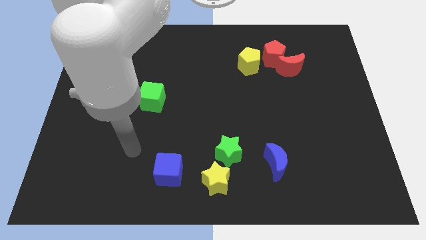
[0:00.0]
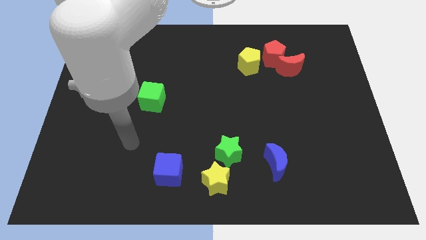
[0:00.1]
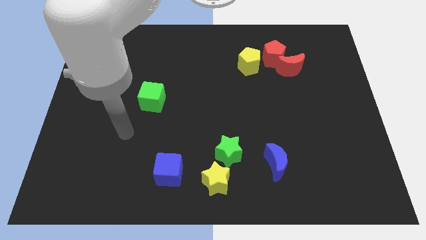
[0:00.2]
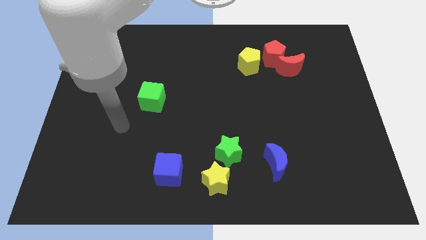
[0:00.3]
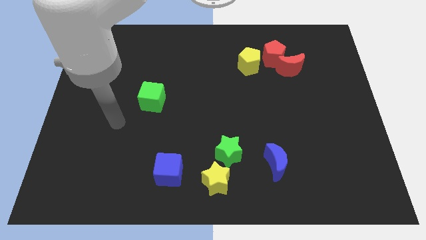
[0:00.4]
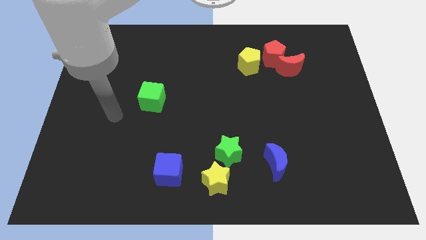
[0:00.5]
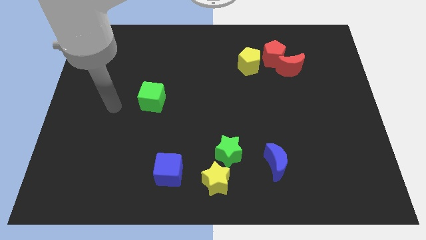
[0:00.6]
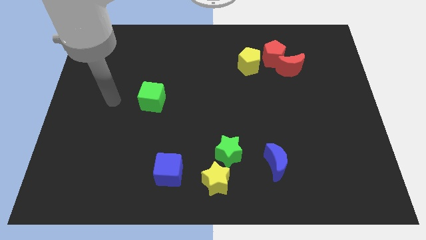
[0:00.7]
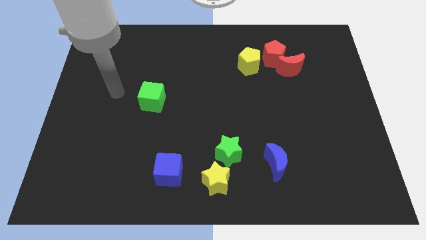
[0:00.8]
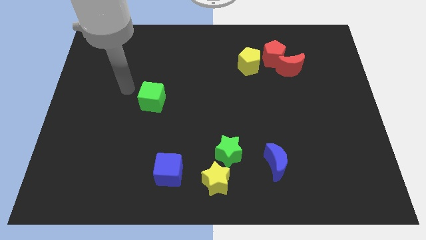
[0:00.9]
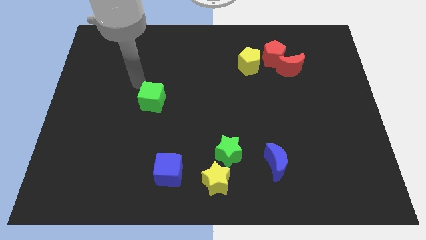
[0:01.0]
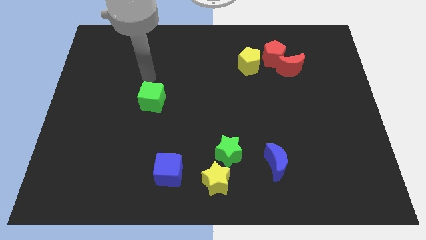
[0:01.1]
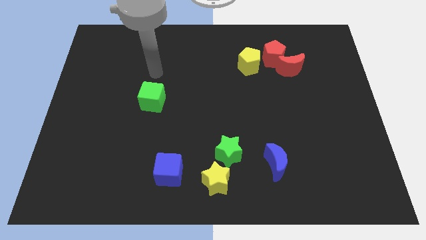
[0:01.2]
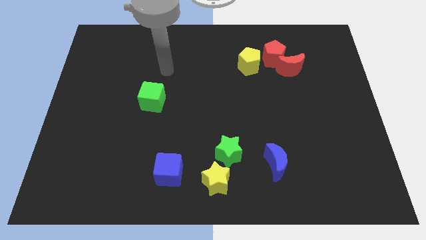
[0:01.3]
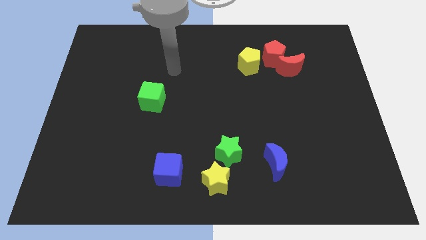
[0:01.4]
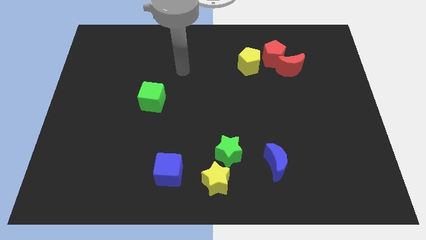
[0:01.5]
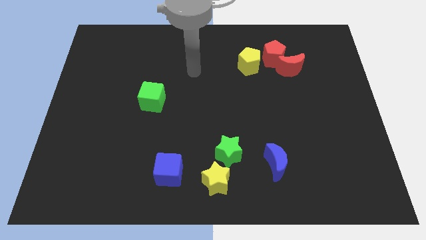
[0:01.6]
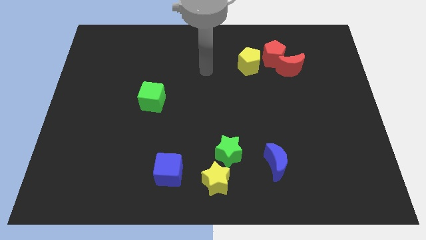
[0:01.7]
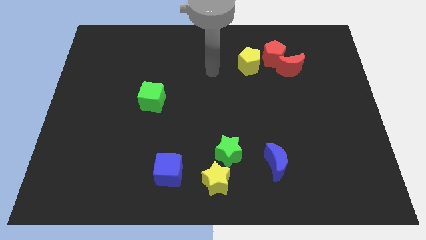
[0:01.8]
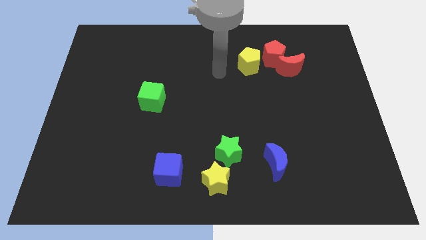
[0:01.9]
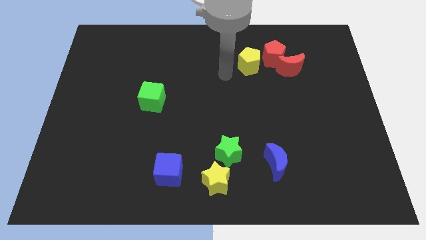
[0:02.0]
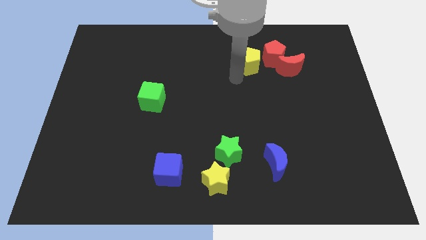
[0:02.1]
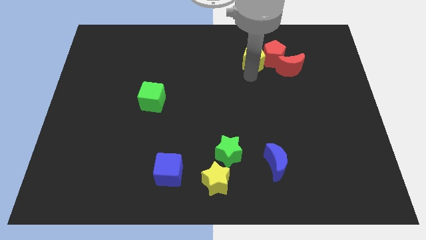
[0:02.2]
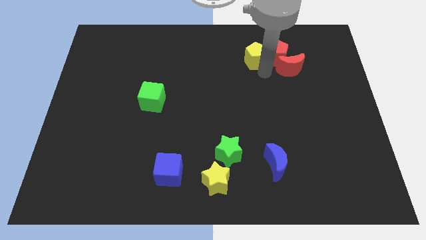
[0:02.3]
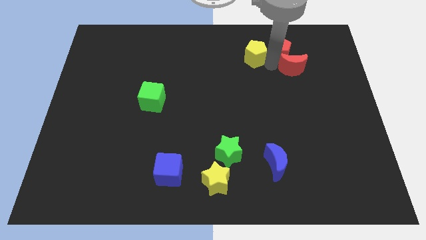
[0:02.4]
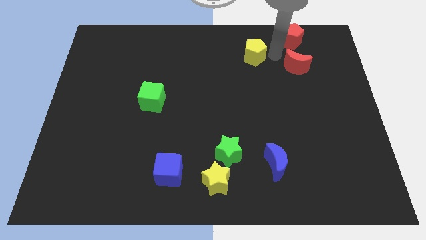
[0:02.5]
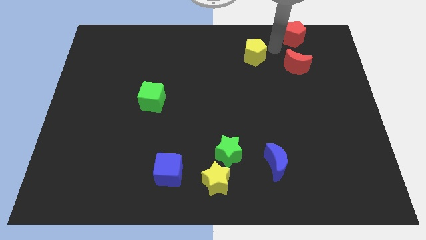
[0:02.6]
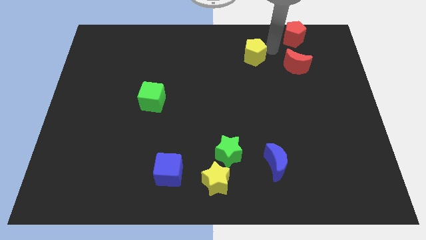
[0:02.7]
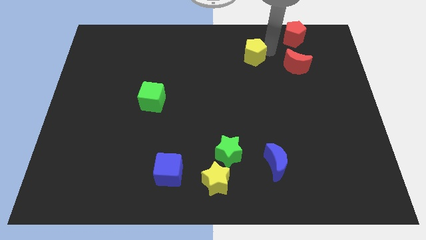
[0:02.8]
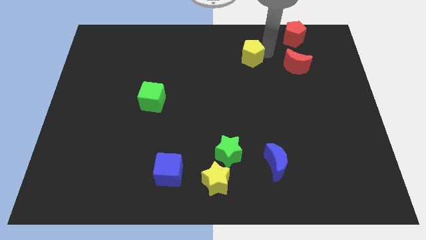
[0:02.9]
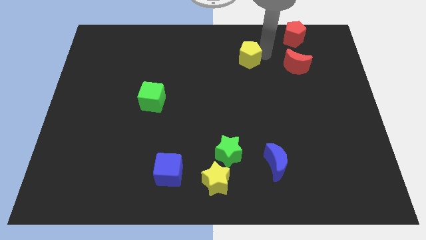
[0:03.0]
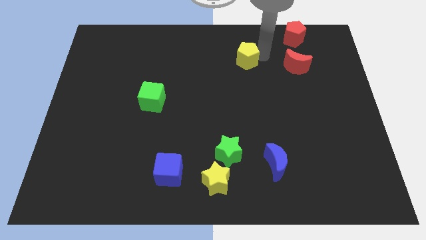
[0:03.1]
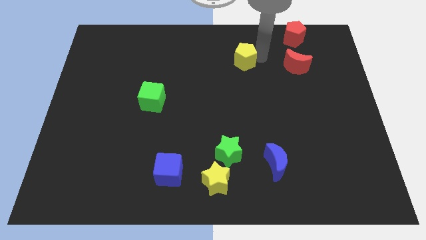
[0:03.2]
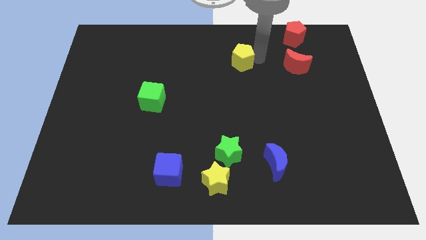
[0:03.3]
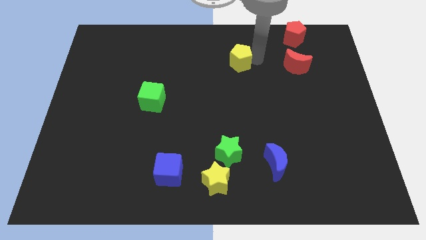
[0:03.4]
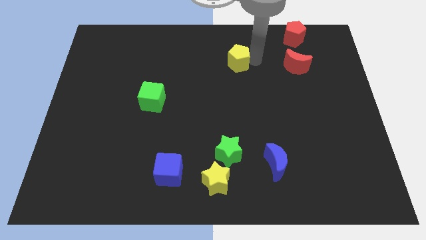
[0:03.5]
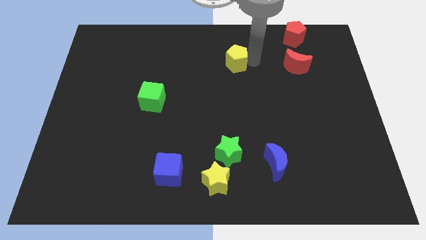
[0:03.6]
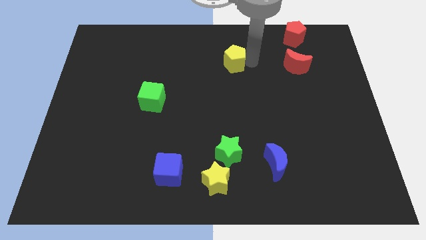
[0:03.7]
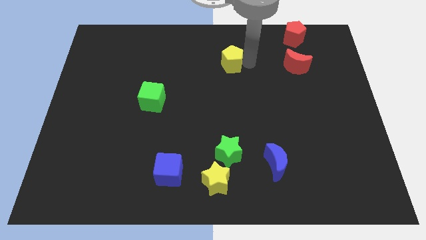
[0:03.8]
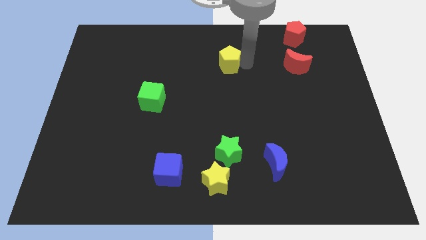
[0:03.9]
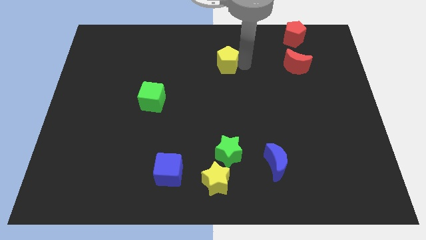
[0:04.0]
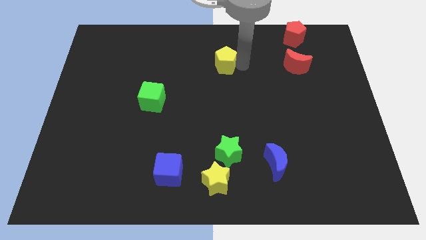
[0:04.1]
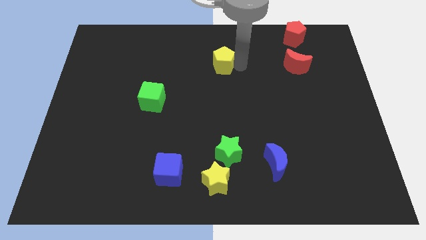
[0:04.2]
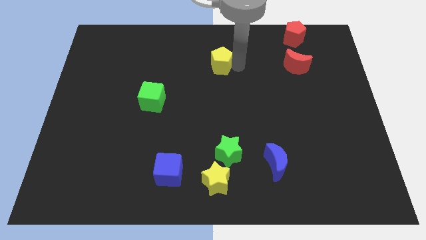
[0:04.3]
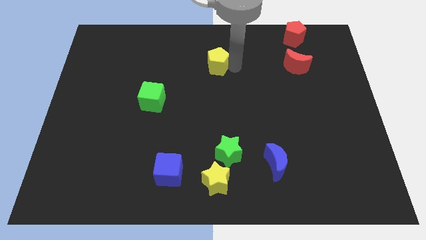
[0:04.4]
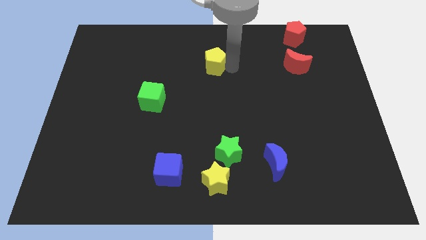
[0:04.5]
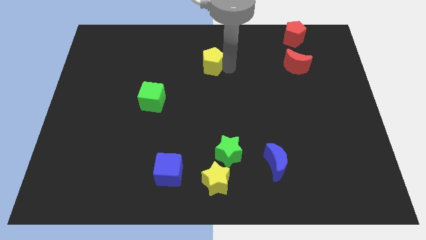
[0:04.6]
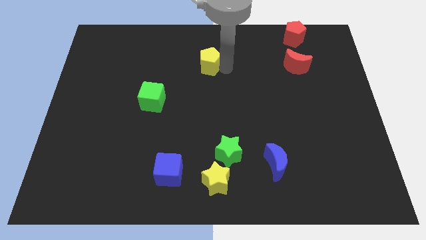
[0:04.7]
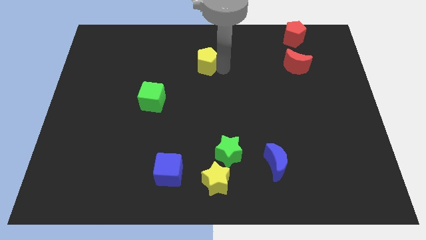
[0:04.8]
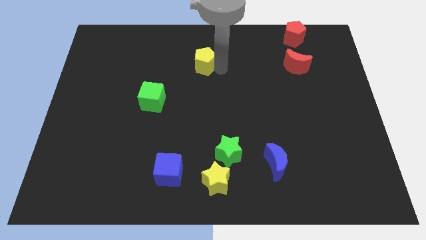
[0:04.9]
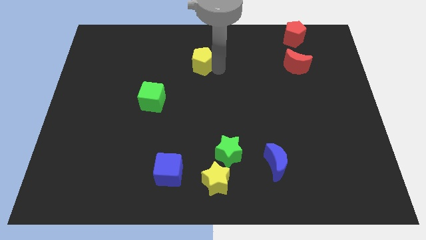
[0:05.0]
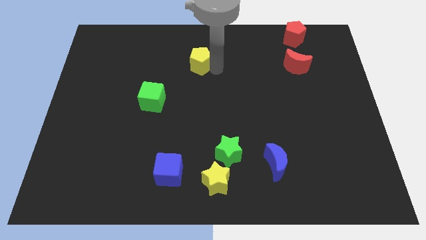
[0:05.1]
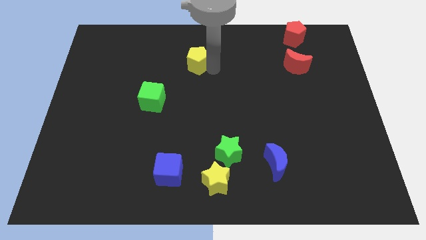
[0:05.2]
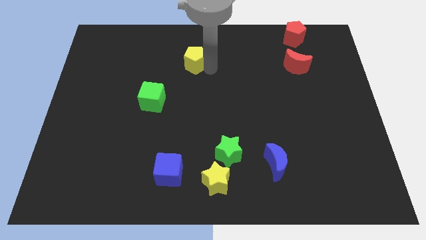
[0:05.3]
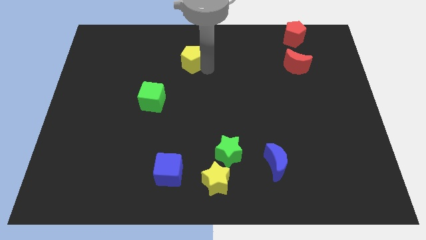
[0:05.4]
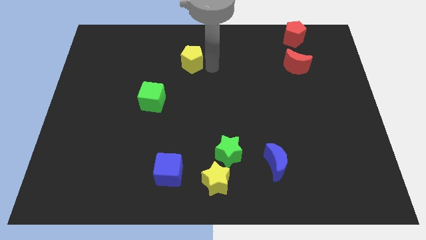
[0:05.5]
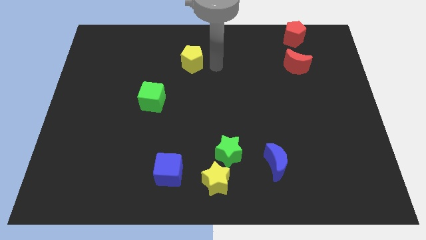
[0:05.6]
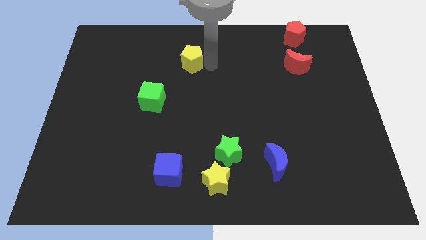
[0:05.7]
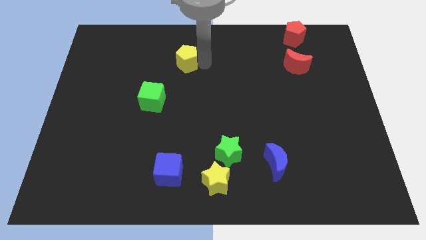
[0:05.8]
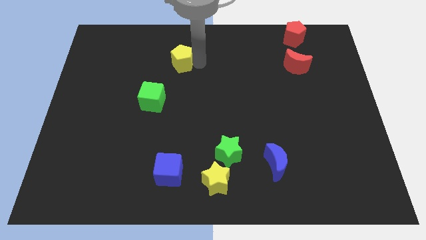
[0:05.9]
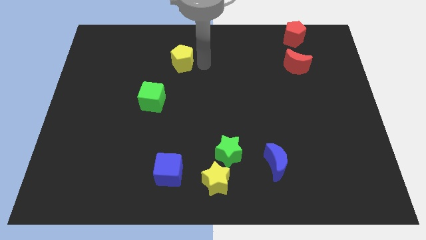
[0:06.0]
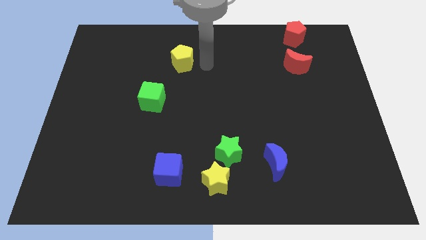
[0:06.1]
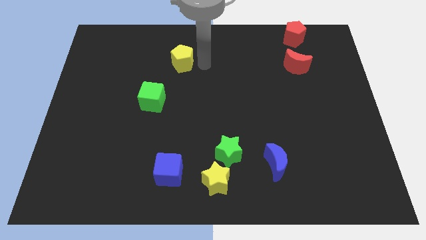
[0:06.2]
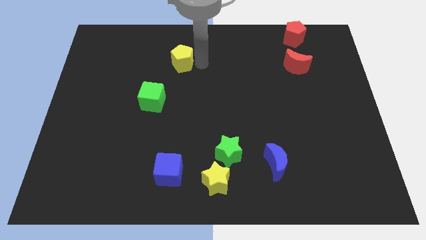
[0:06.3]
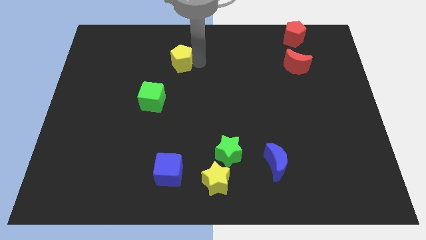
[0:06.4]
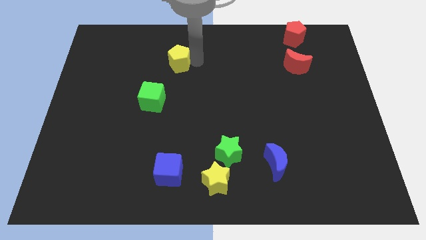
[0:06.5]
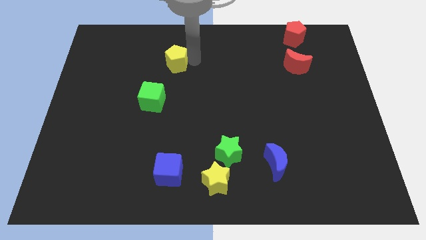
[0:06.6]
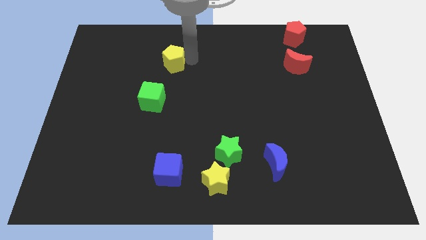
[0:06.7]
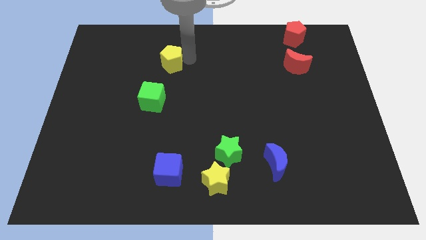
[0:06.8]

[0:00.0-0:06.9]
move the yellow pentagon to the left

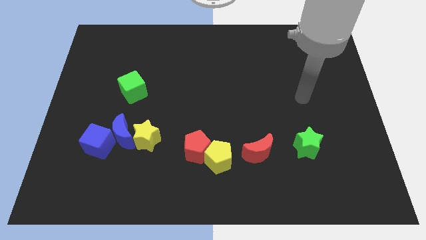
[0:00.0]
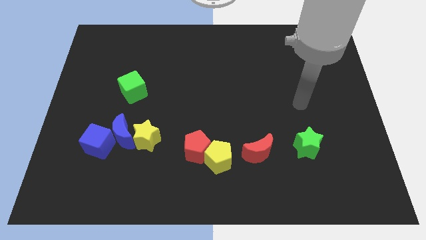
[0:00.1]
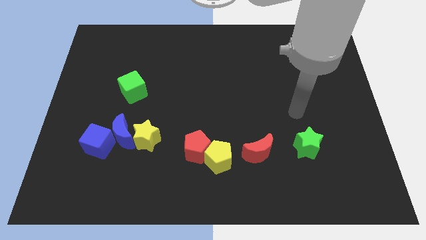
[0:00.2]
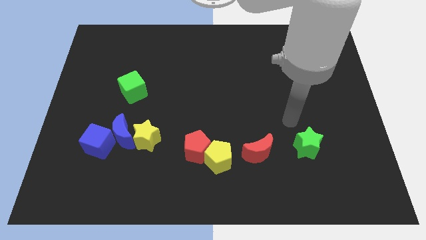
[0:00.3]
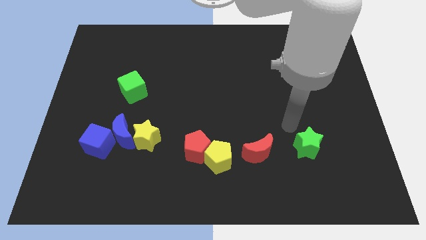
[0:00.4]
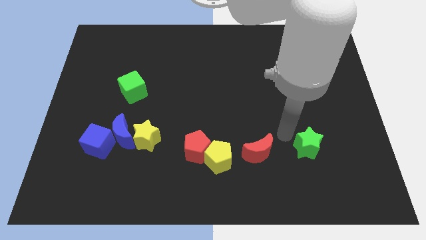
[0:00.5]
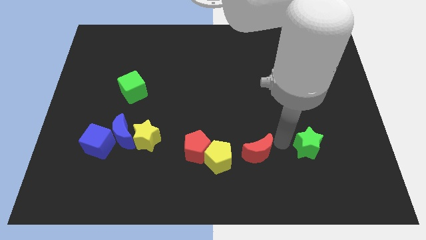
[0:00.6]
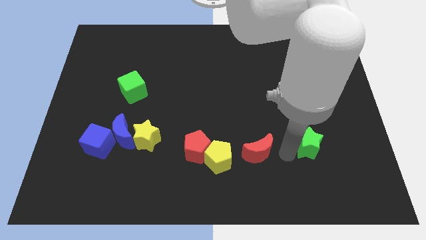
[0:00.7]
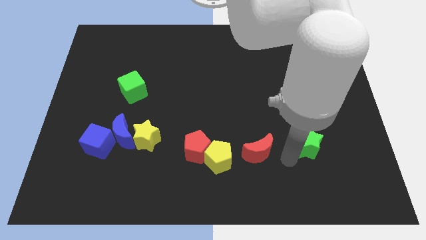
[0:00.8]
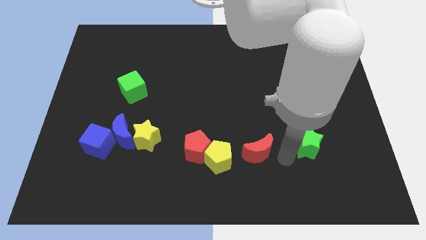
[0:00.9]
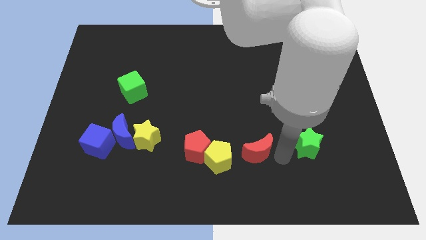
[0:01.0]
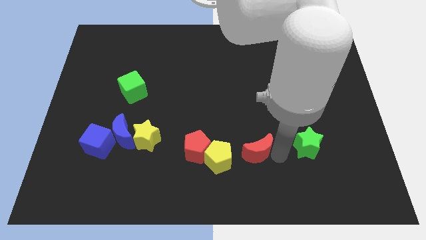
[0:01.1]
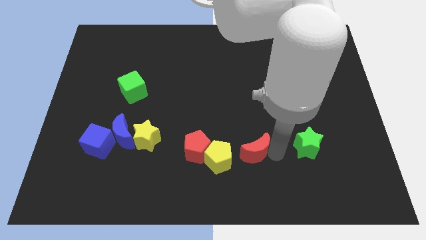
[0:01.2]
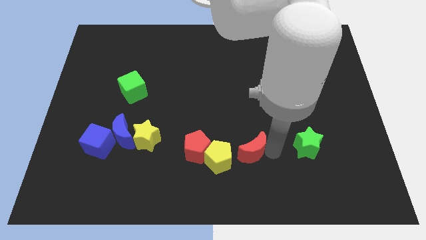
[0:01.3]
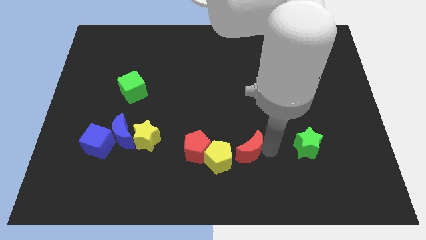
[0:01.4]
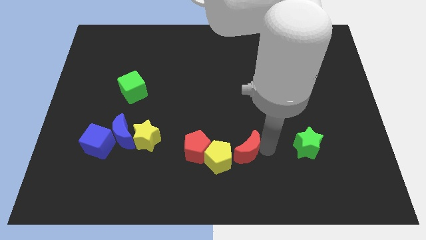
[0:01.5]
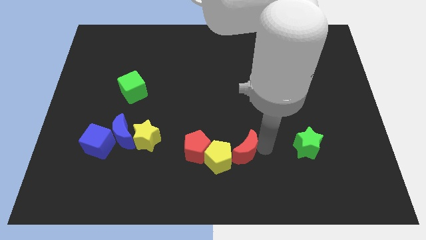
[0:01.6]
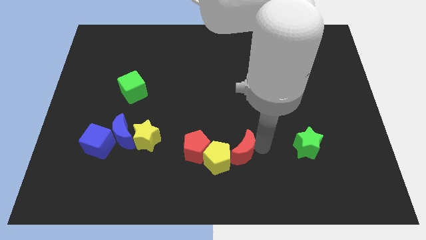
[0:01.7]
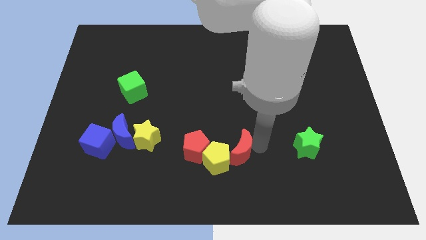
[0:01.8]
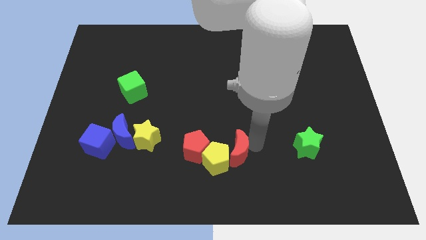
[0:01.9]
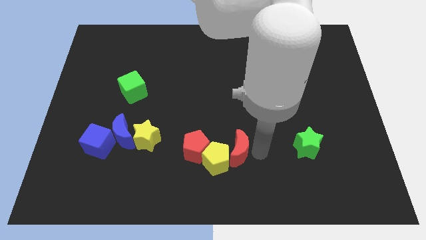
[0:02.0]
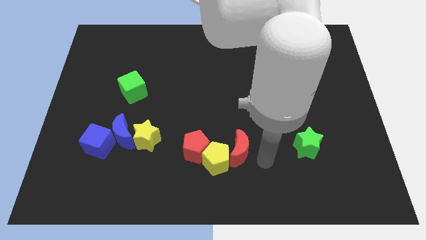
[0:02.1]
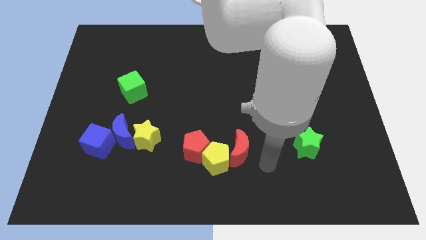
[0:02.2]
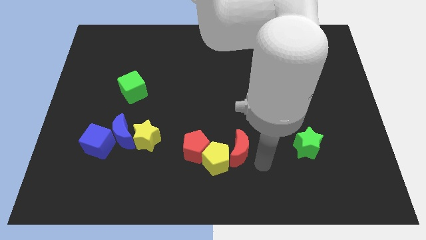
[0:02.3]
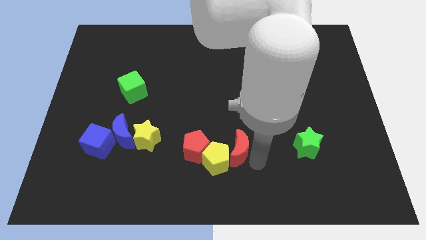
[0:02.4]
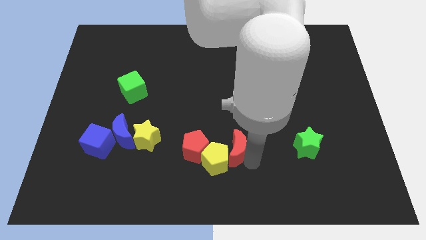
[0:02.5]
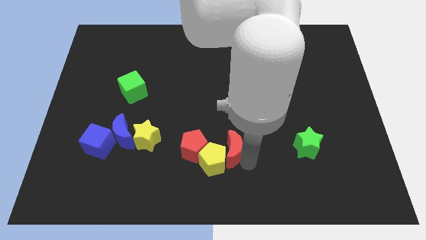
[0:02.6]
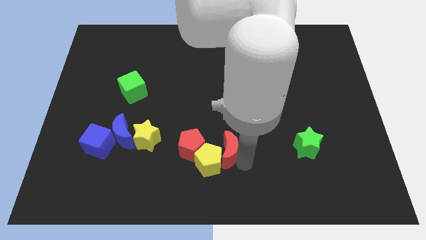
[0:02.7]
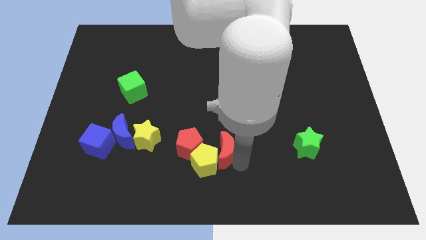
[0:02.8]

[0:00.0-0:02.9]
push the red moon to the left somewhat
